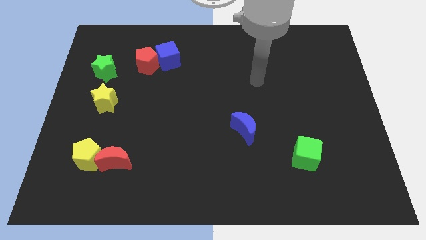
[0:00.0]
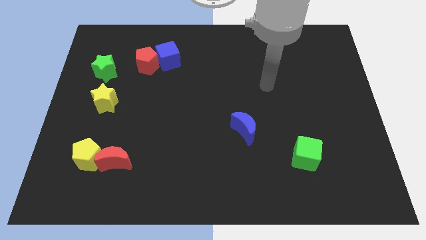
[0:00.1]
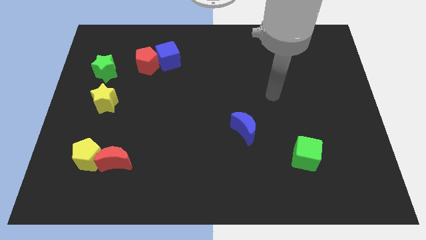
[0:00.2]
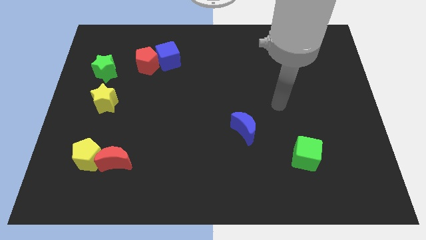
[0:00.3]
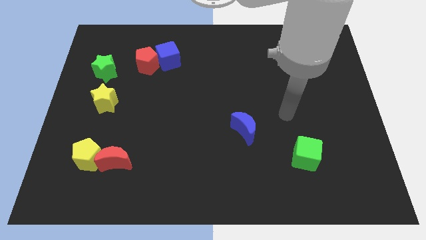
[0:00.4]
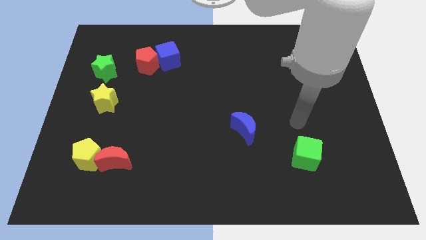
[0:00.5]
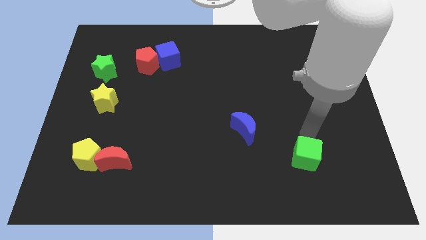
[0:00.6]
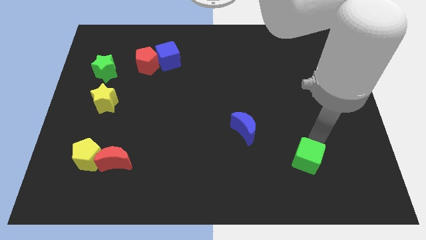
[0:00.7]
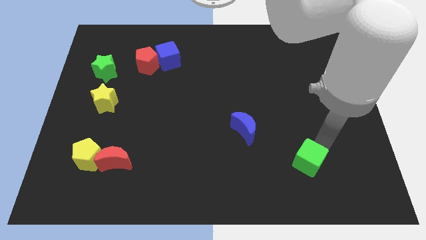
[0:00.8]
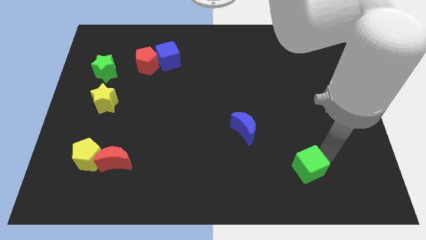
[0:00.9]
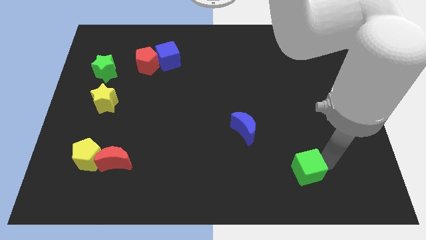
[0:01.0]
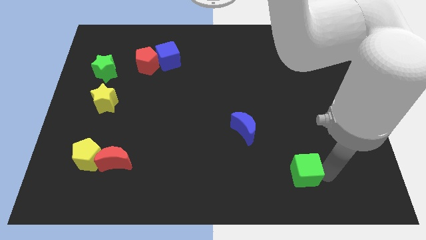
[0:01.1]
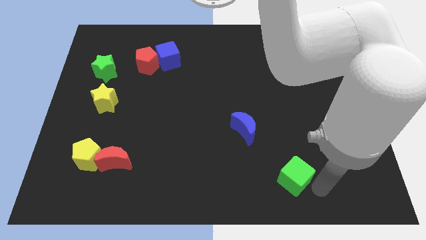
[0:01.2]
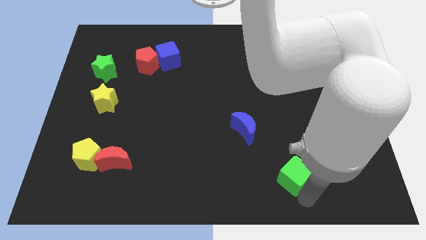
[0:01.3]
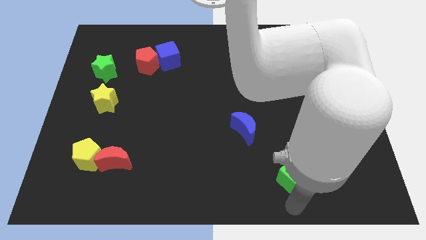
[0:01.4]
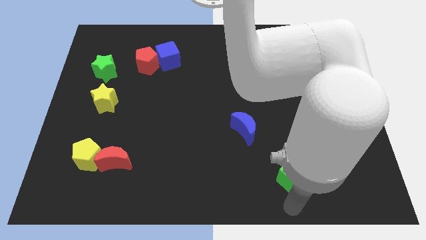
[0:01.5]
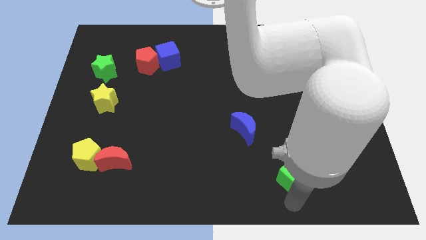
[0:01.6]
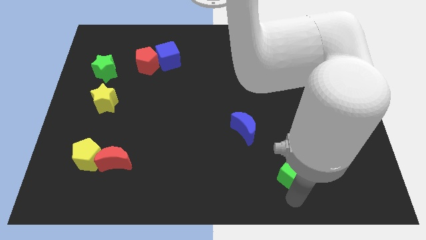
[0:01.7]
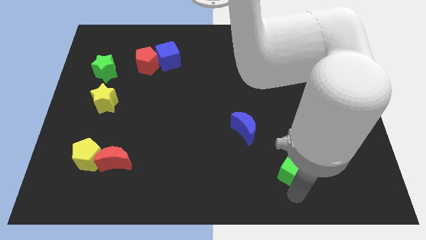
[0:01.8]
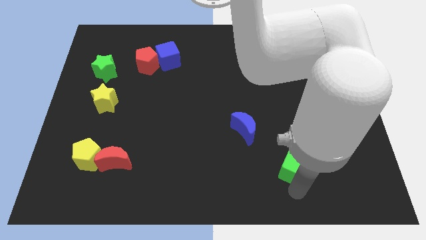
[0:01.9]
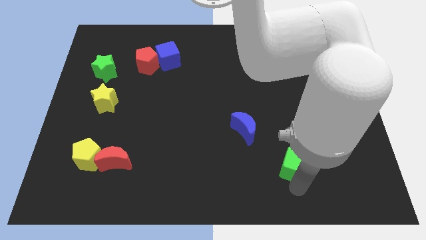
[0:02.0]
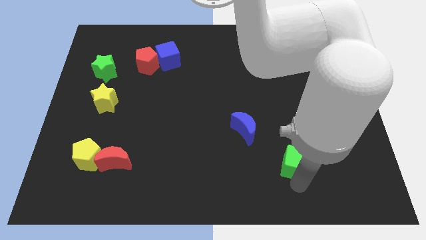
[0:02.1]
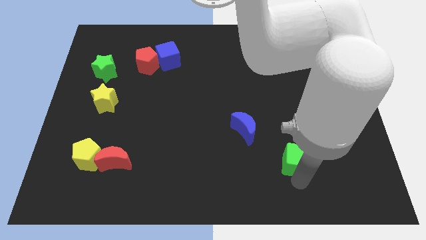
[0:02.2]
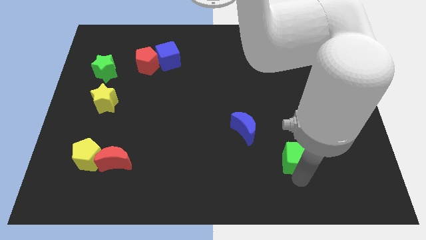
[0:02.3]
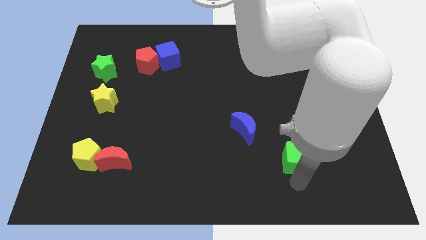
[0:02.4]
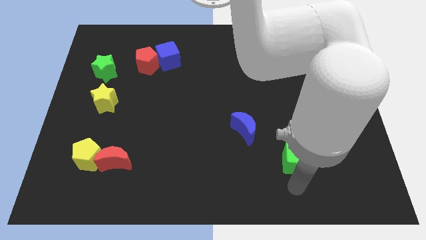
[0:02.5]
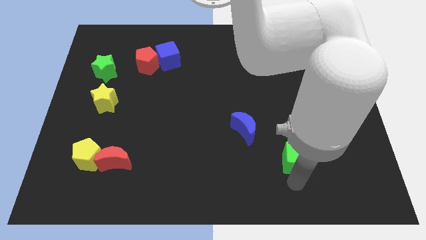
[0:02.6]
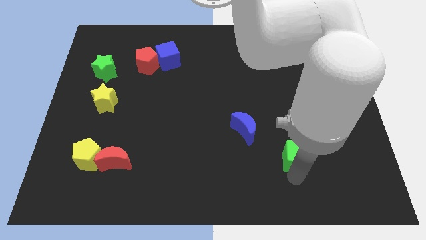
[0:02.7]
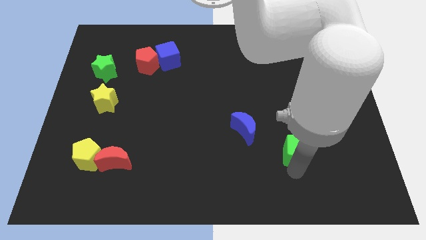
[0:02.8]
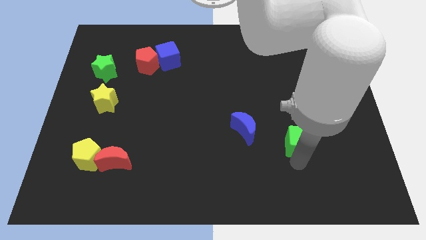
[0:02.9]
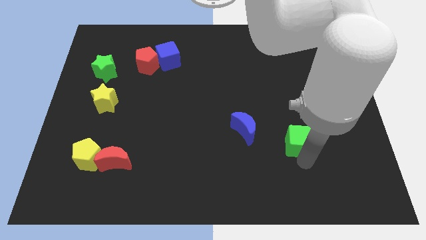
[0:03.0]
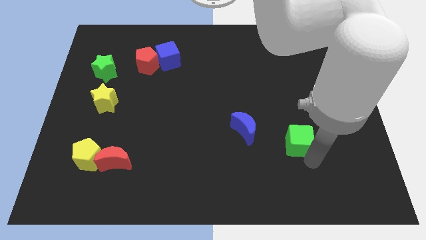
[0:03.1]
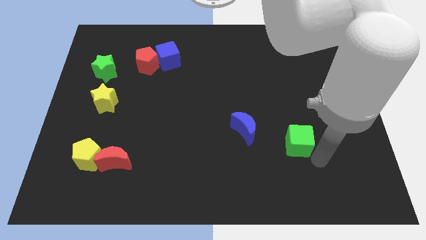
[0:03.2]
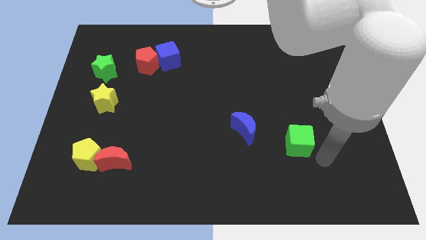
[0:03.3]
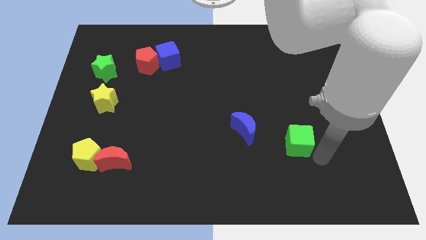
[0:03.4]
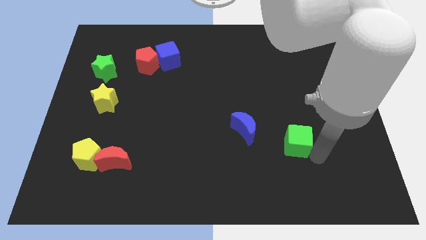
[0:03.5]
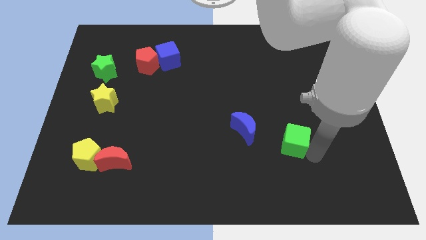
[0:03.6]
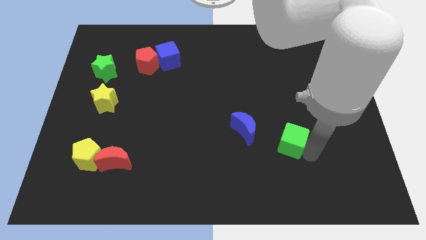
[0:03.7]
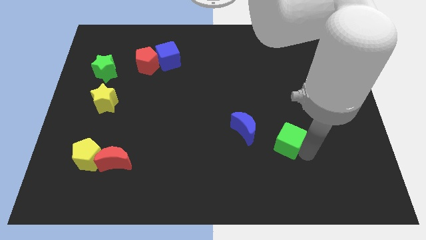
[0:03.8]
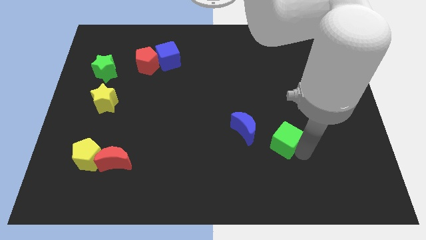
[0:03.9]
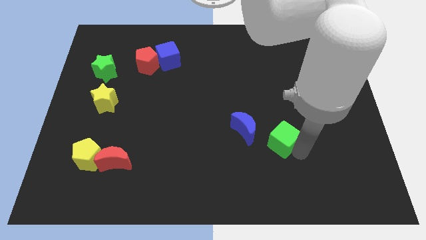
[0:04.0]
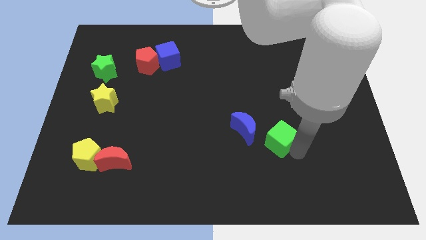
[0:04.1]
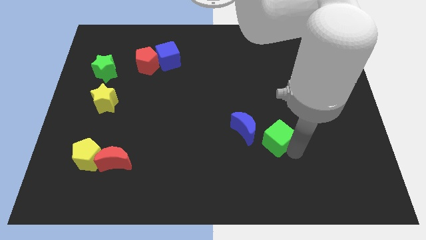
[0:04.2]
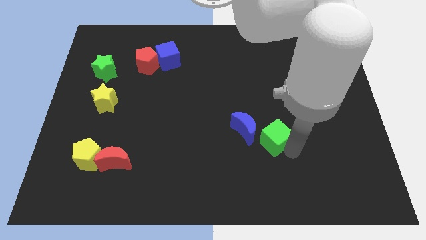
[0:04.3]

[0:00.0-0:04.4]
slightly move the green cube upwards and then left

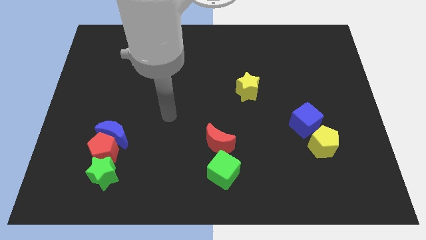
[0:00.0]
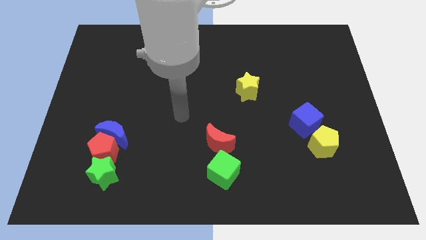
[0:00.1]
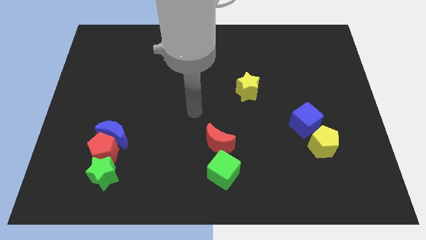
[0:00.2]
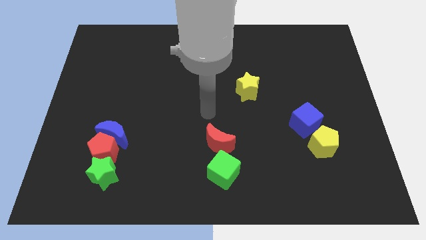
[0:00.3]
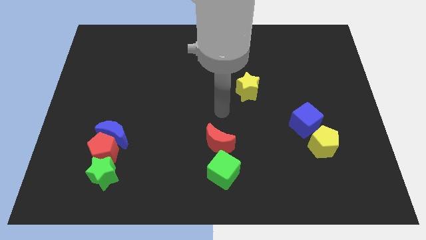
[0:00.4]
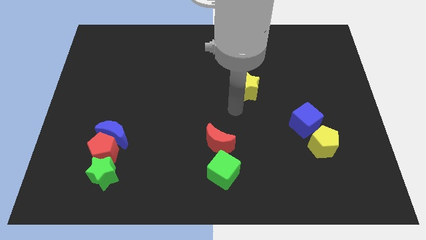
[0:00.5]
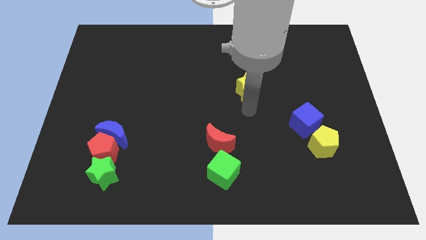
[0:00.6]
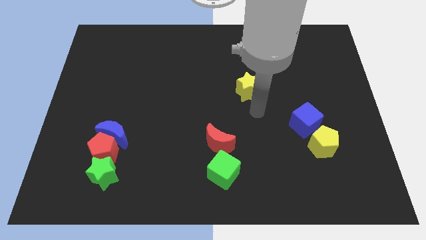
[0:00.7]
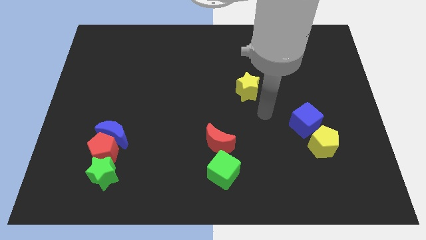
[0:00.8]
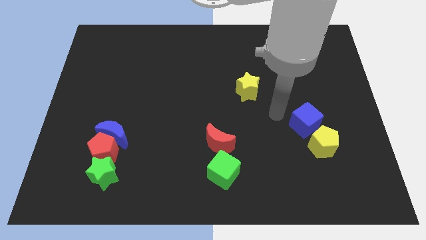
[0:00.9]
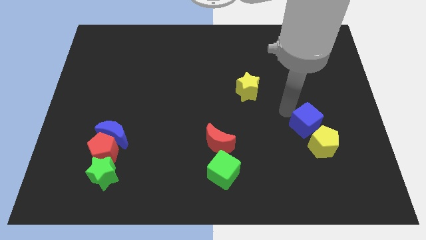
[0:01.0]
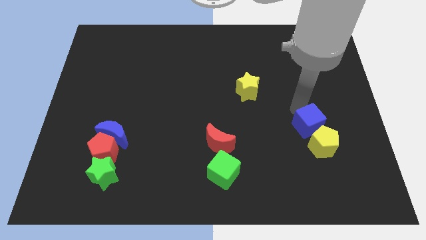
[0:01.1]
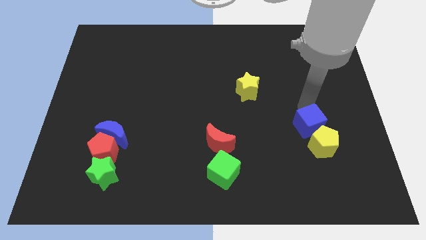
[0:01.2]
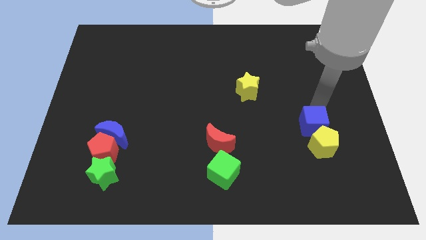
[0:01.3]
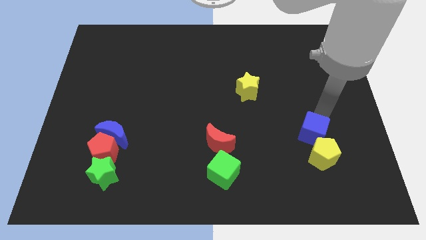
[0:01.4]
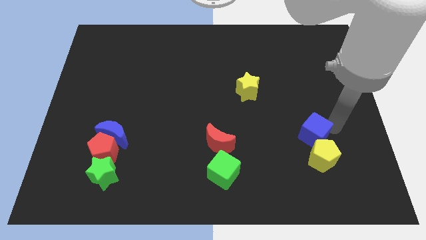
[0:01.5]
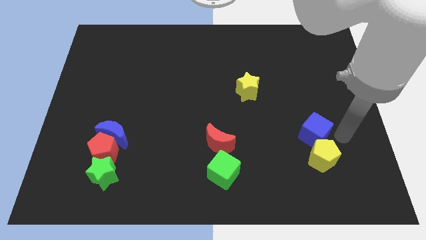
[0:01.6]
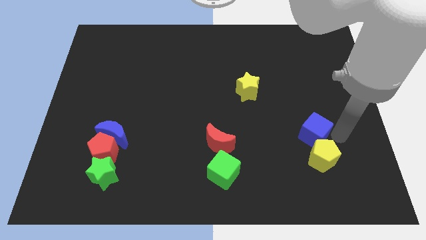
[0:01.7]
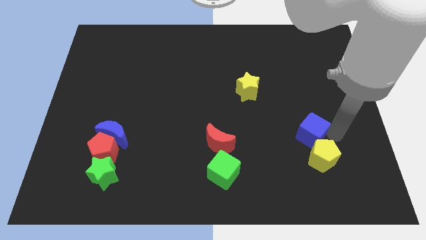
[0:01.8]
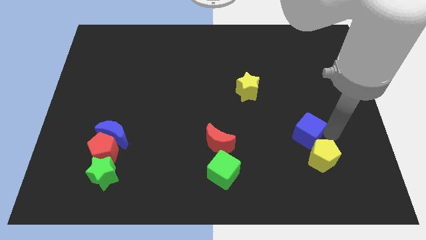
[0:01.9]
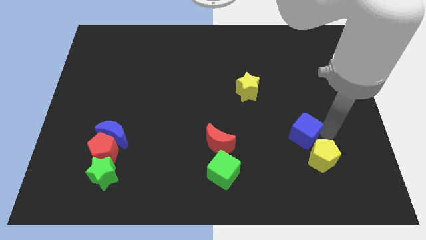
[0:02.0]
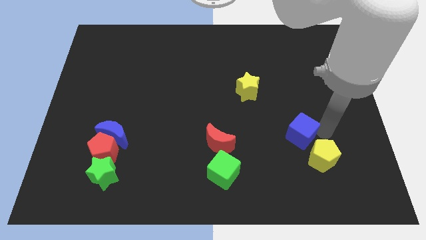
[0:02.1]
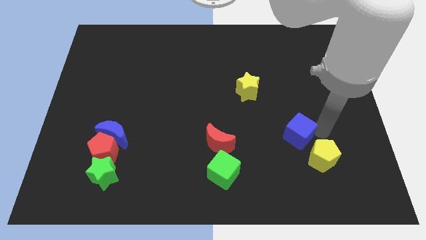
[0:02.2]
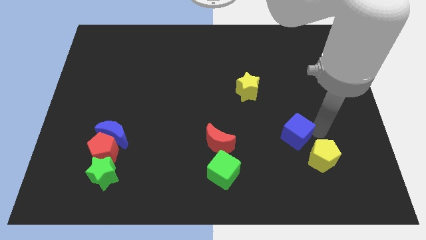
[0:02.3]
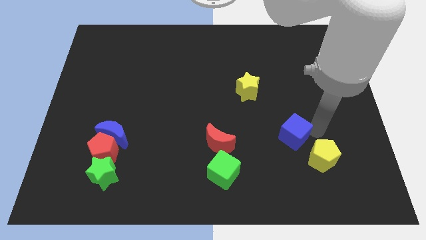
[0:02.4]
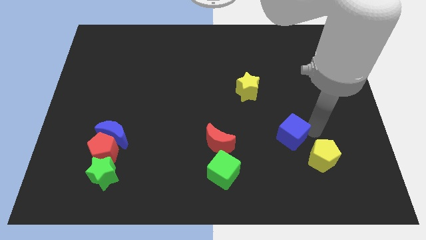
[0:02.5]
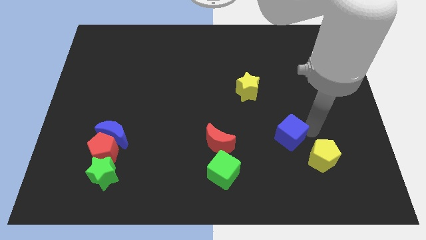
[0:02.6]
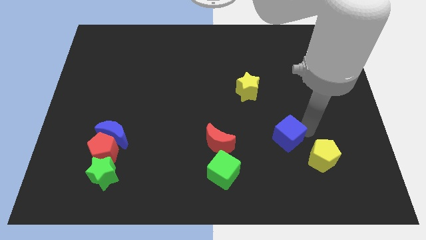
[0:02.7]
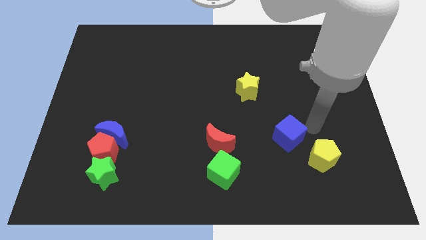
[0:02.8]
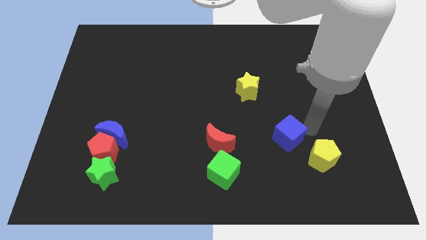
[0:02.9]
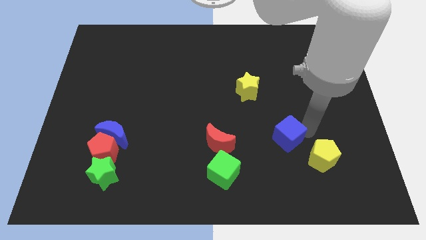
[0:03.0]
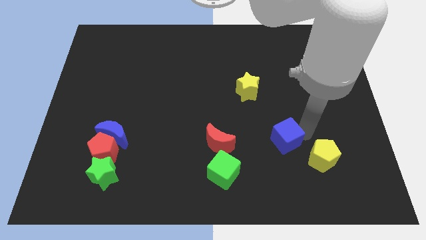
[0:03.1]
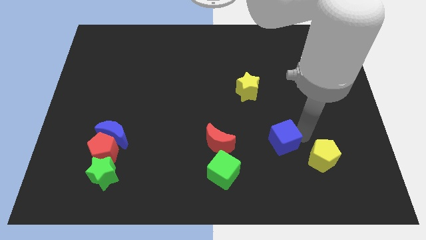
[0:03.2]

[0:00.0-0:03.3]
push the blue cube down and then left a bit

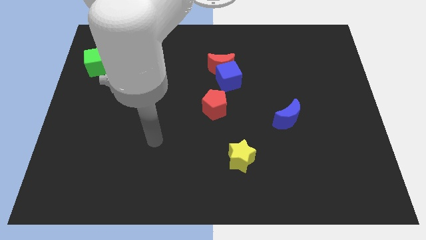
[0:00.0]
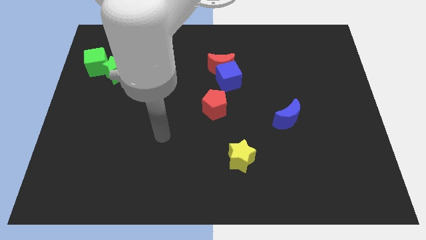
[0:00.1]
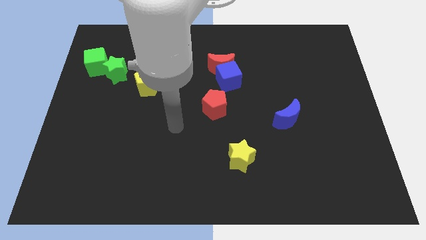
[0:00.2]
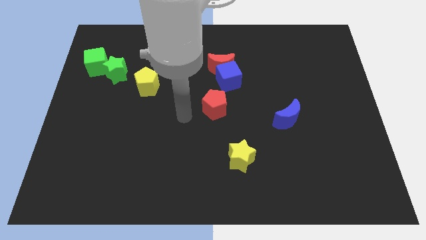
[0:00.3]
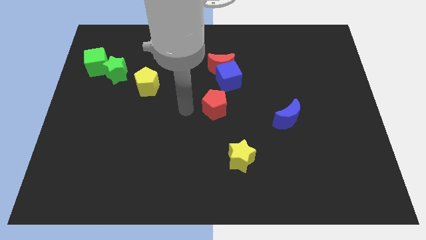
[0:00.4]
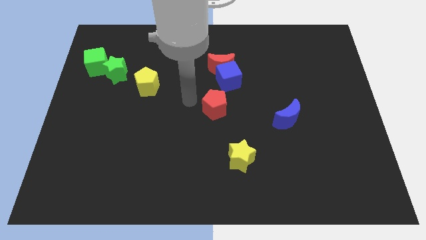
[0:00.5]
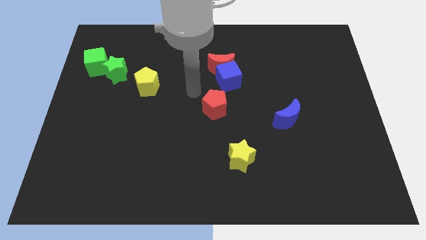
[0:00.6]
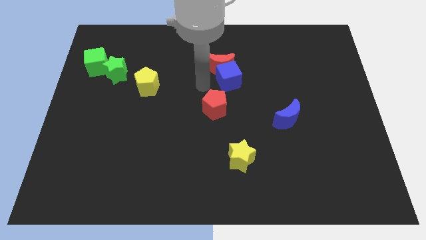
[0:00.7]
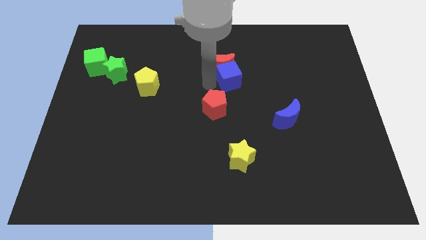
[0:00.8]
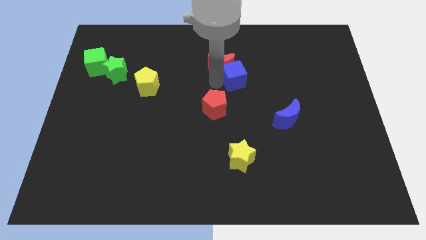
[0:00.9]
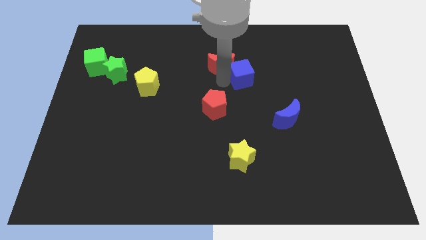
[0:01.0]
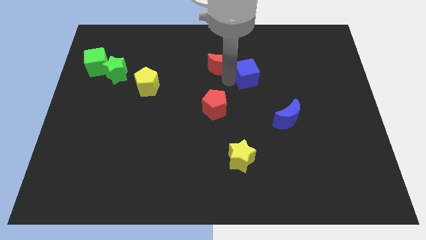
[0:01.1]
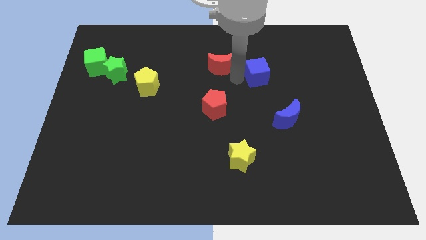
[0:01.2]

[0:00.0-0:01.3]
push the blue cube a little to the right
